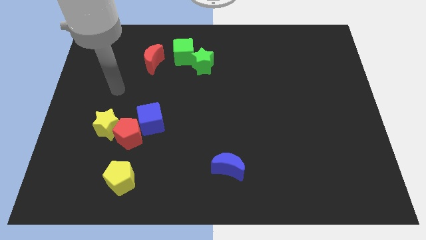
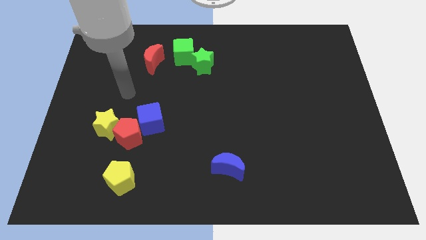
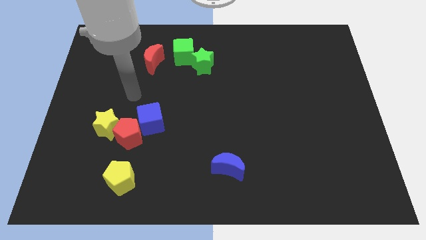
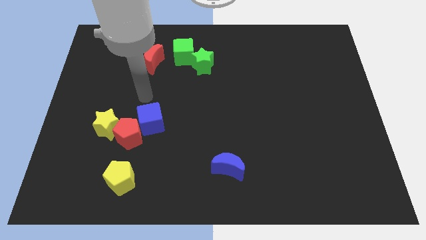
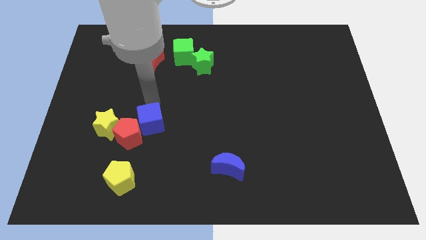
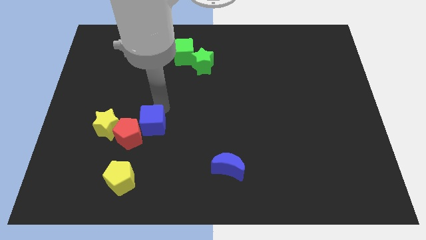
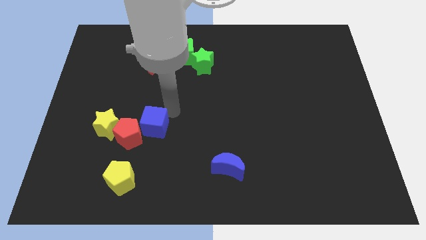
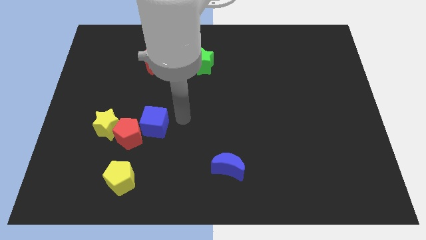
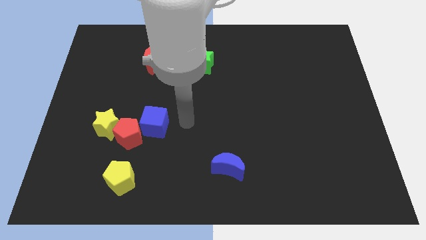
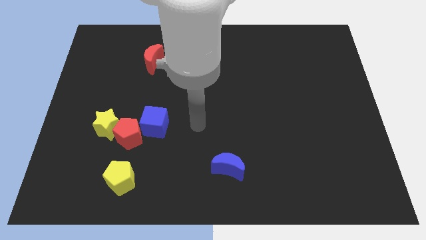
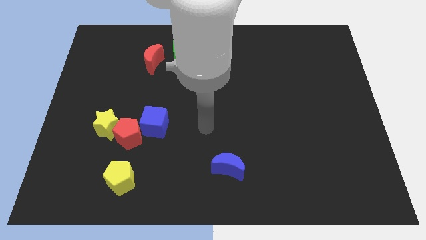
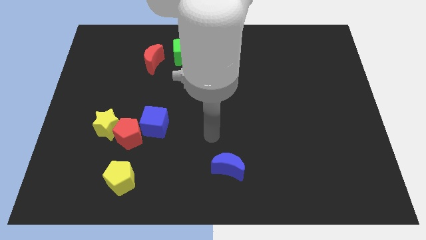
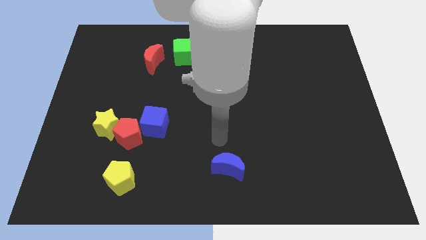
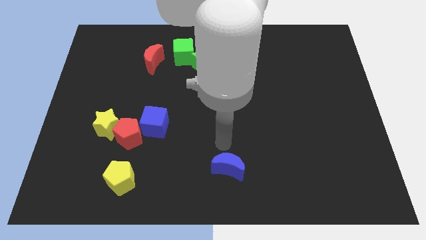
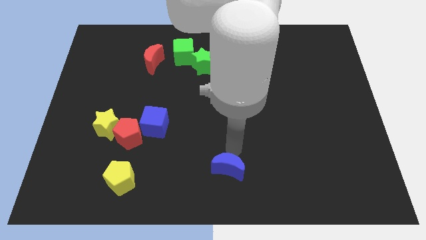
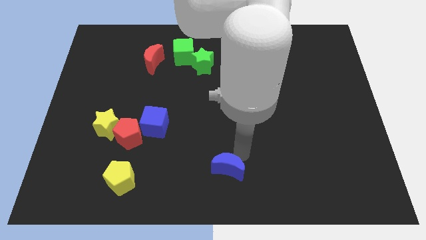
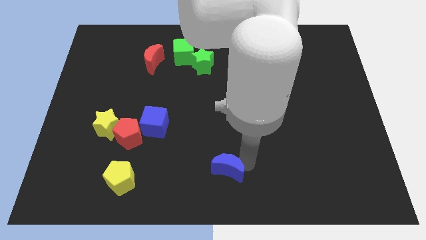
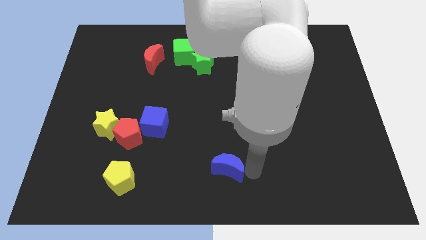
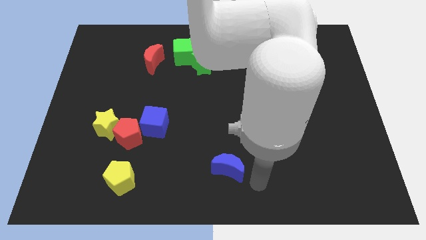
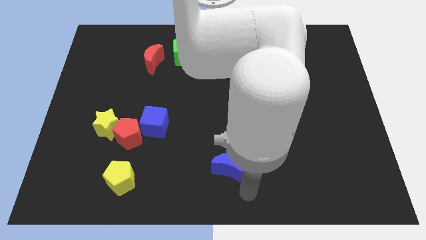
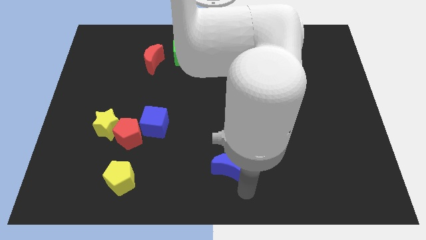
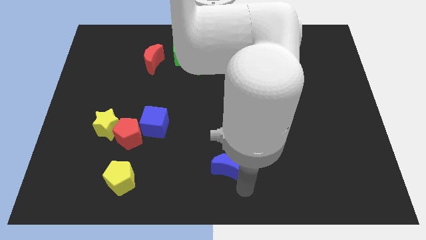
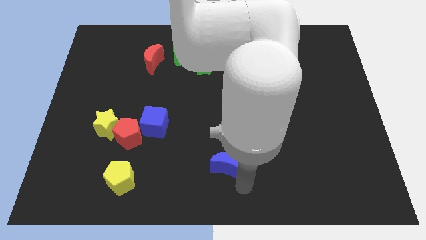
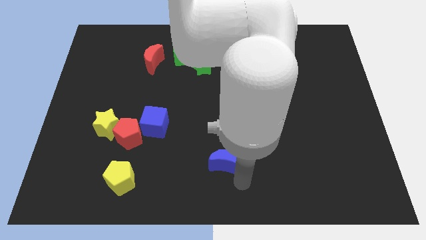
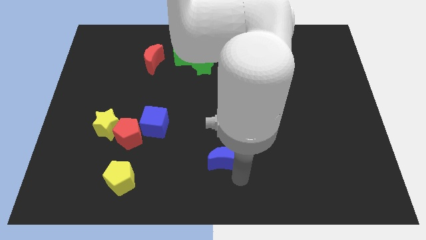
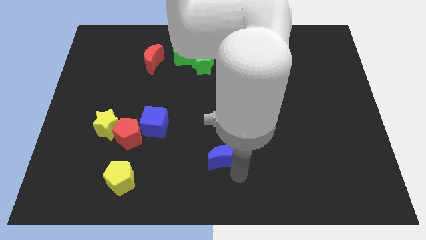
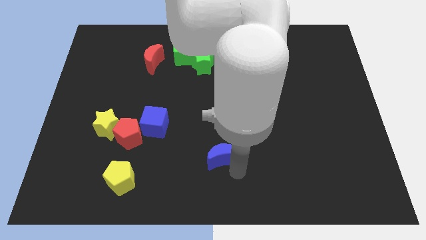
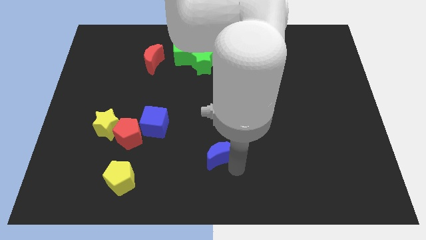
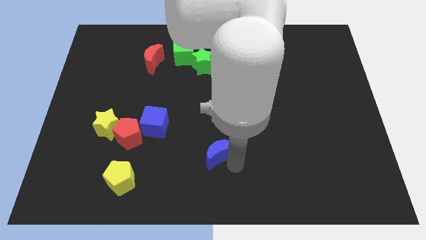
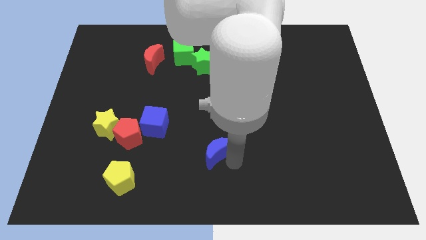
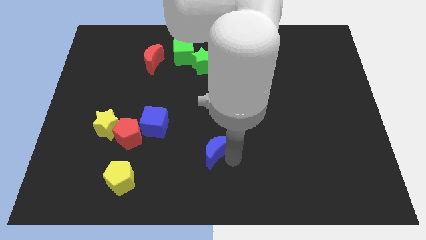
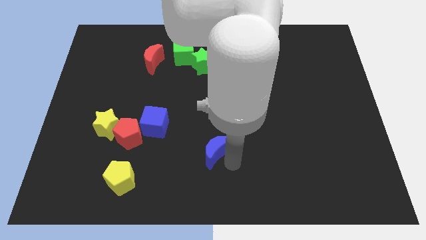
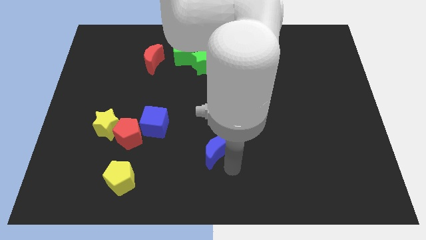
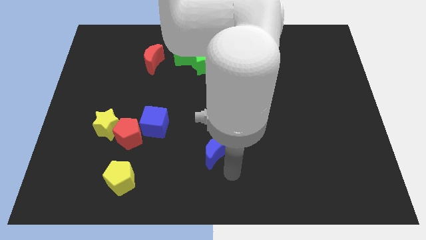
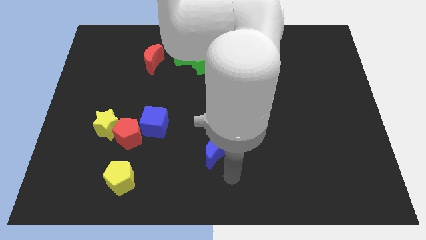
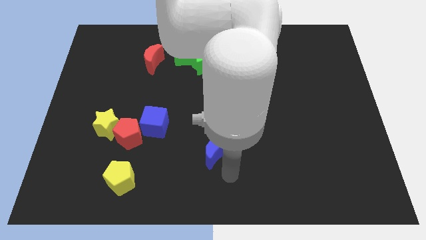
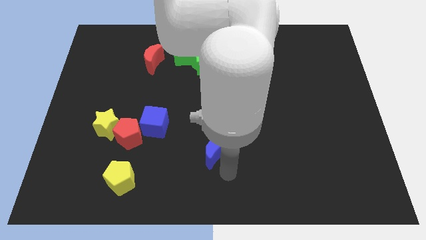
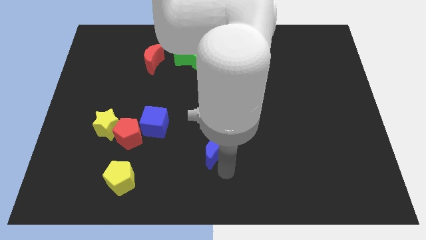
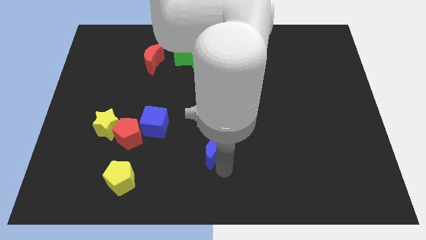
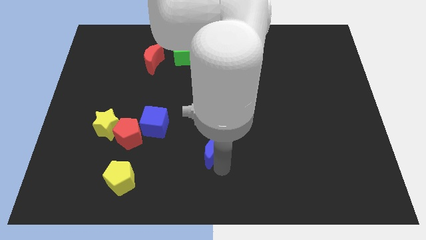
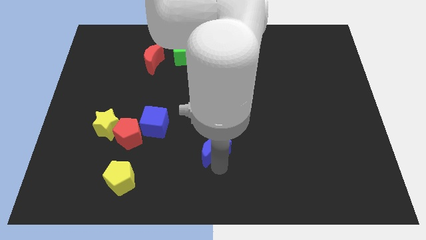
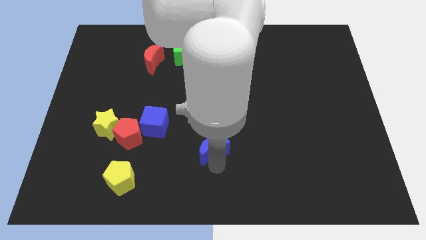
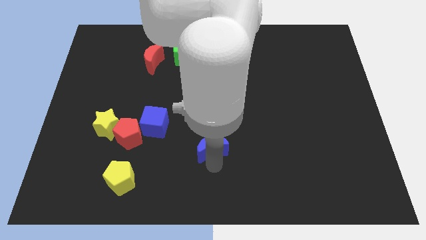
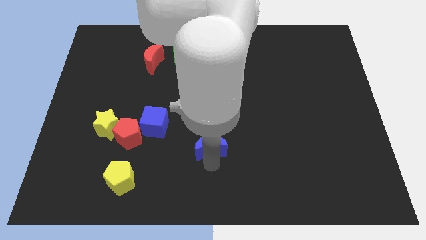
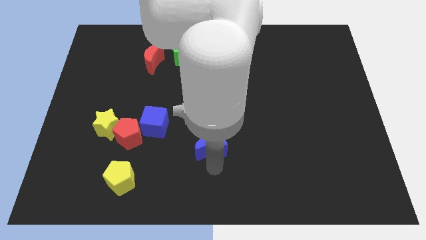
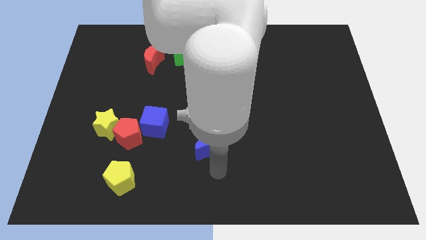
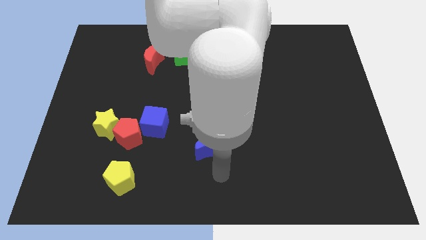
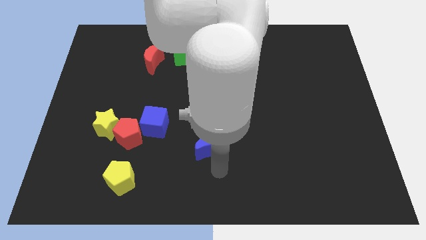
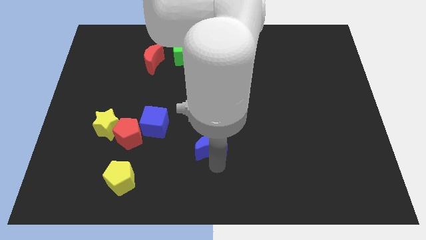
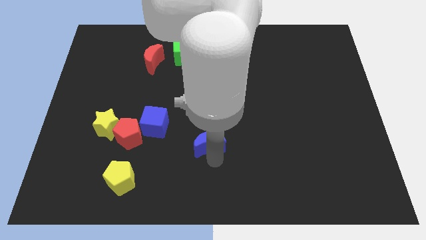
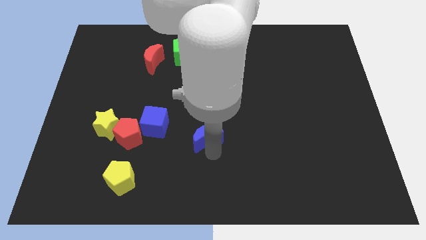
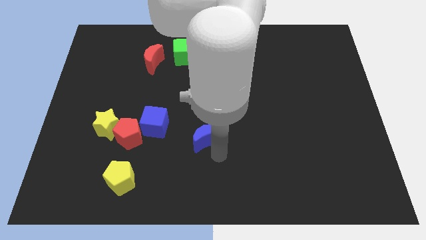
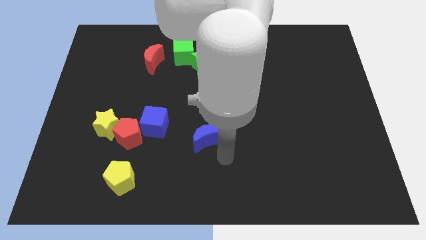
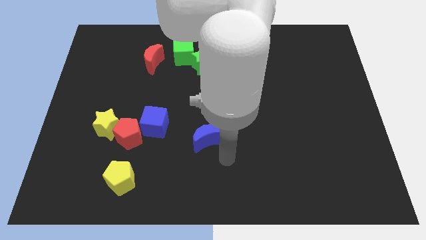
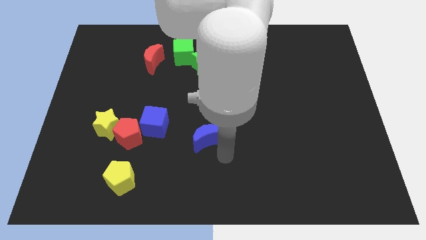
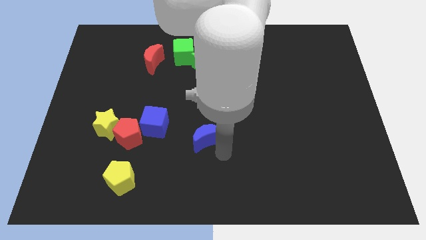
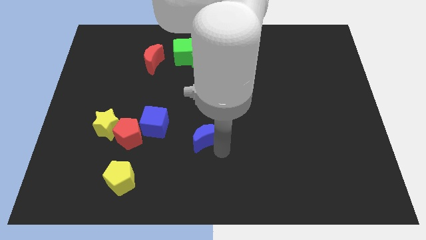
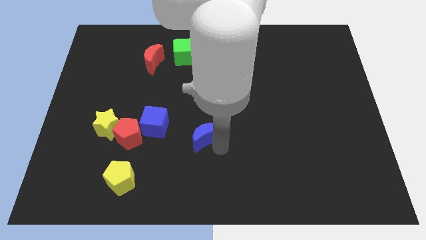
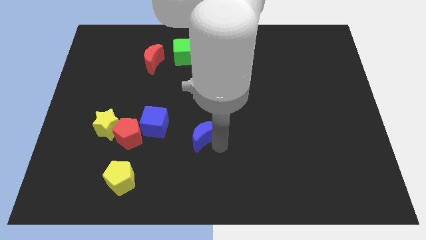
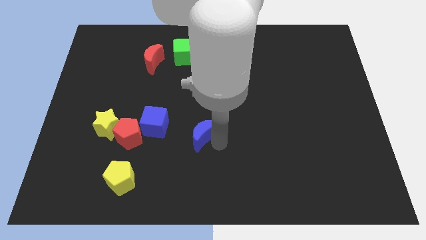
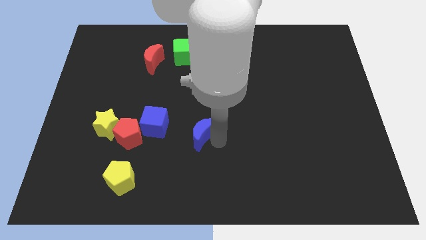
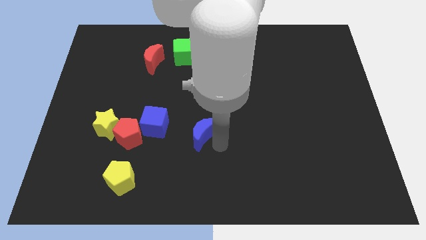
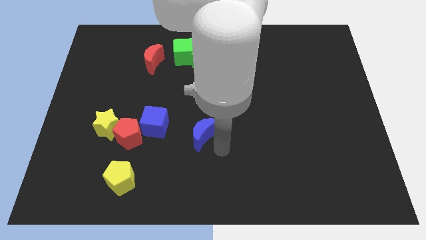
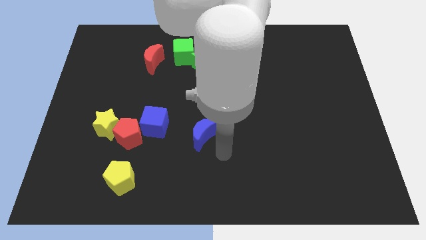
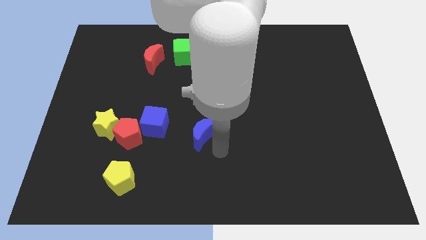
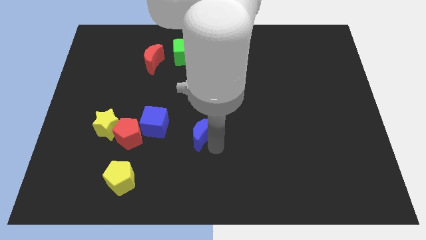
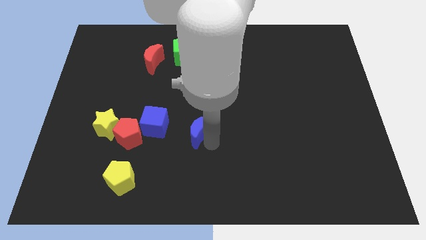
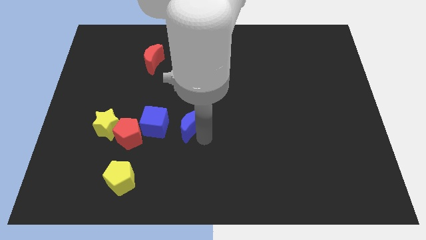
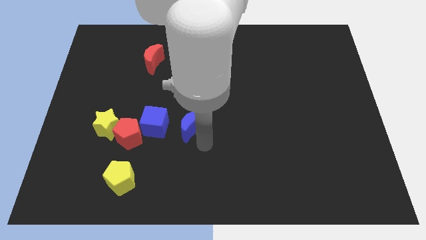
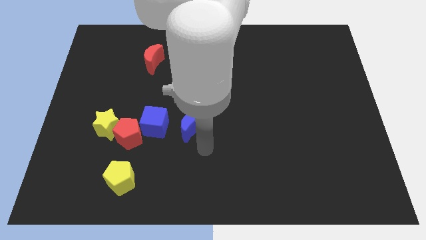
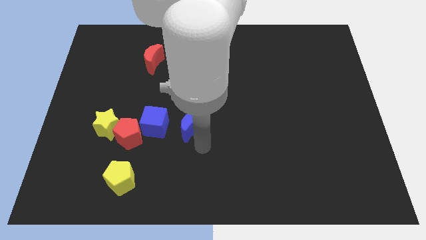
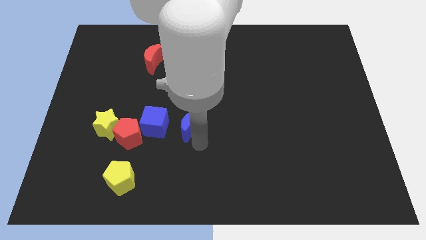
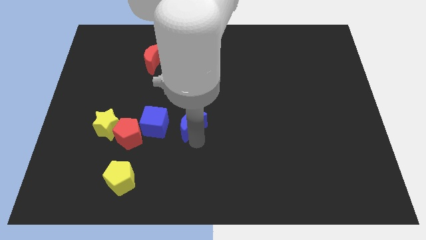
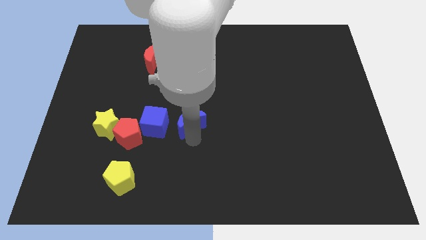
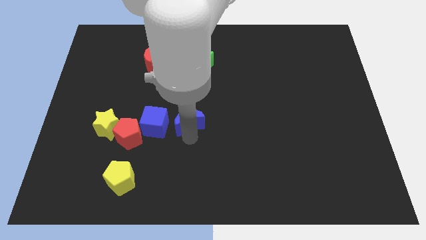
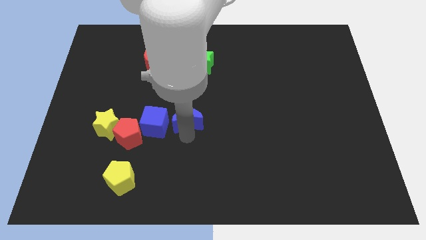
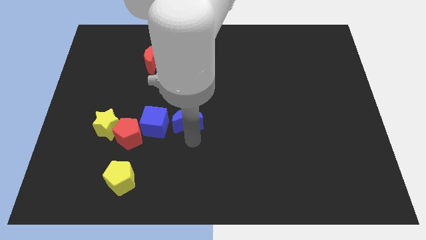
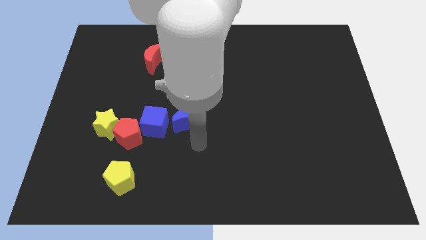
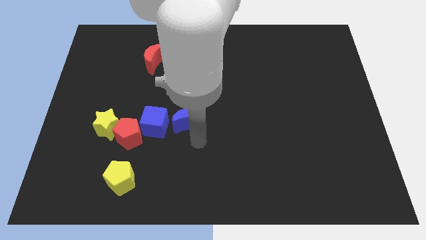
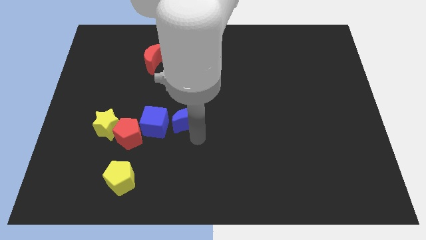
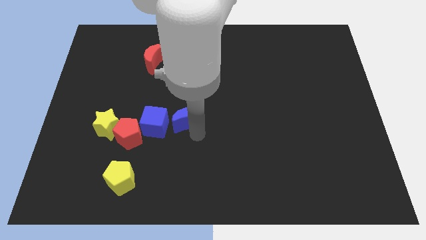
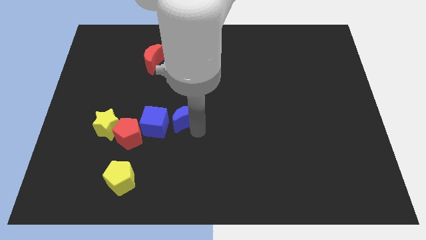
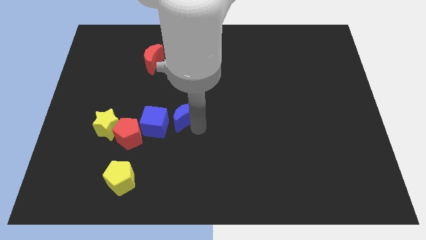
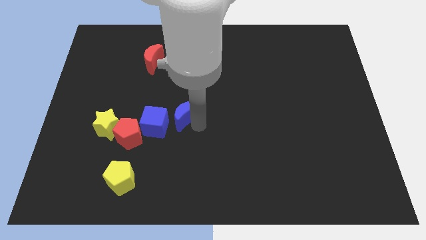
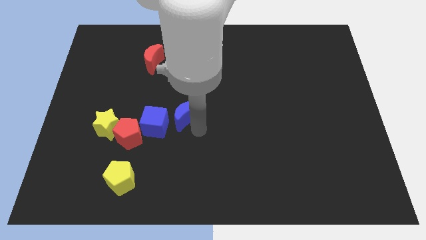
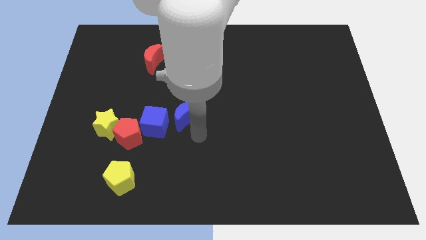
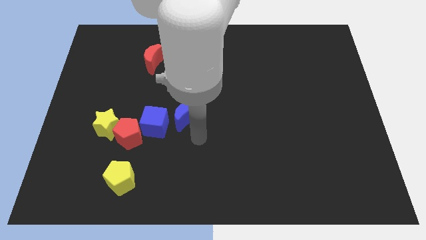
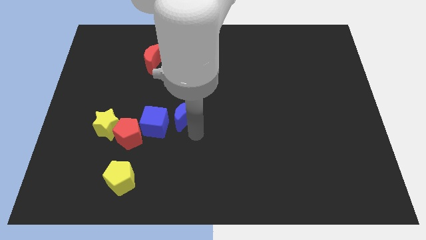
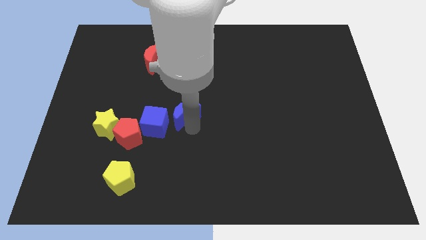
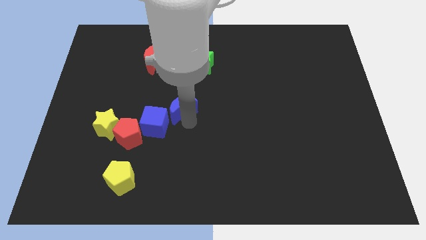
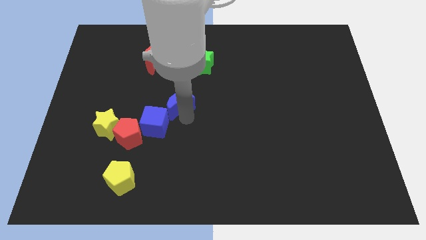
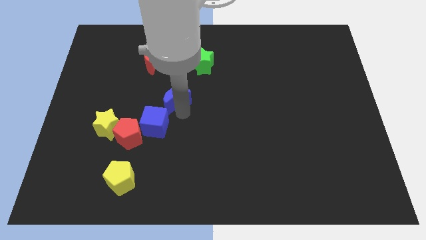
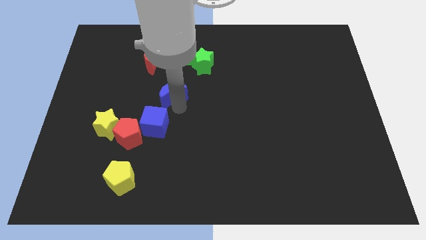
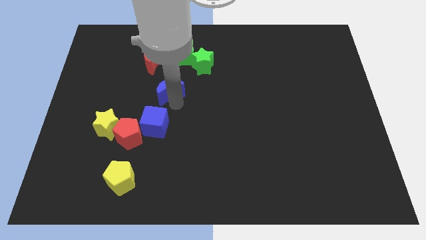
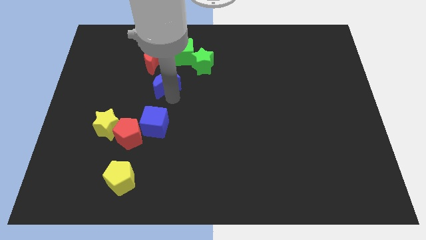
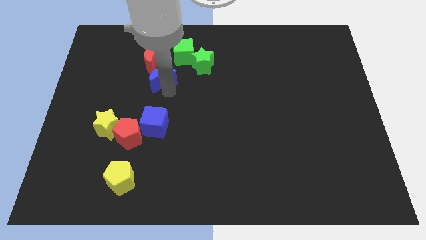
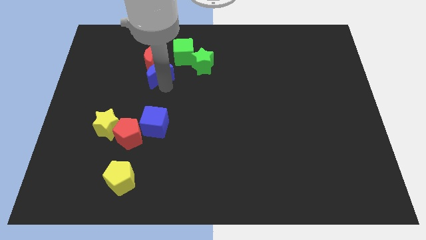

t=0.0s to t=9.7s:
slide the blue moon close to the red moon
